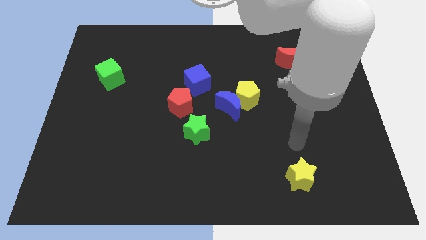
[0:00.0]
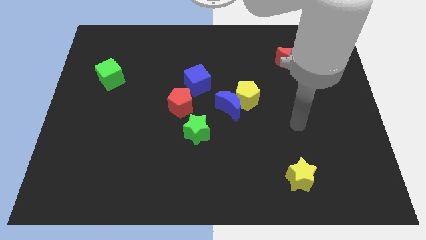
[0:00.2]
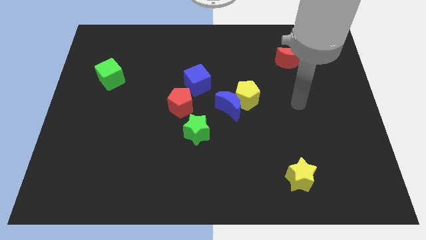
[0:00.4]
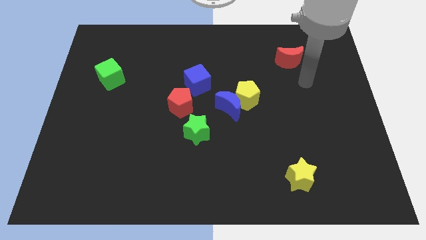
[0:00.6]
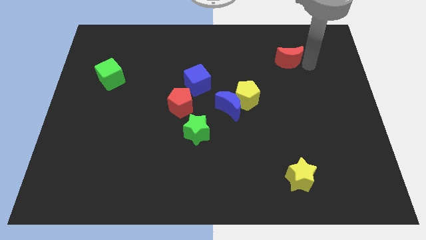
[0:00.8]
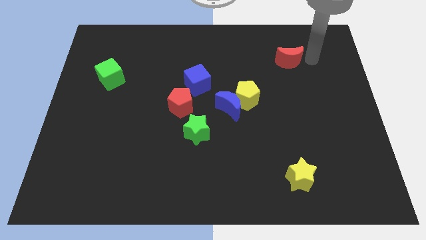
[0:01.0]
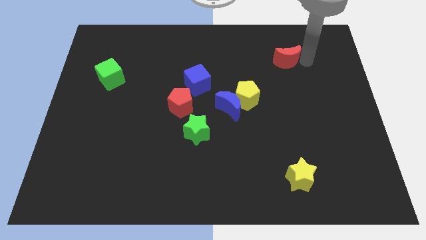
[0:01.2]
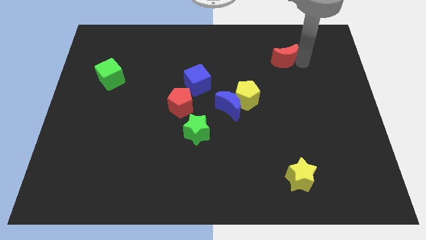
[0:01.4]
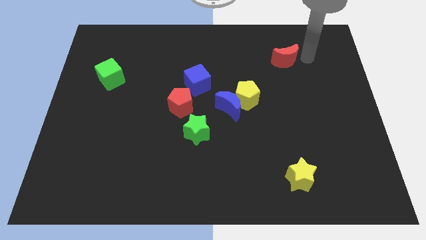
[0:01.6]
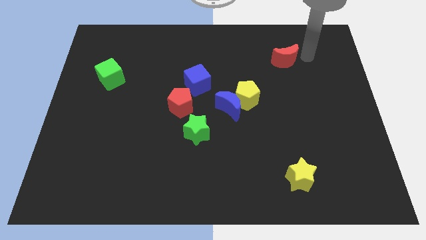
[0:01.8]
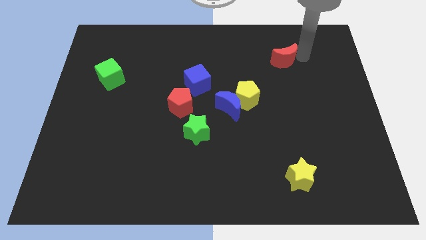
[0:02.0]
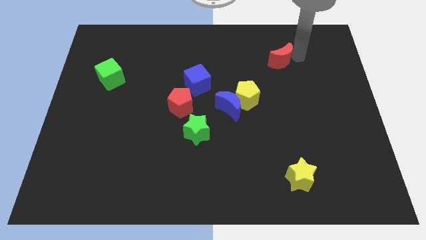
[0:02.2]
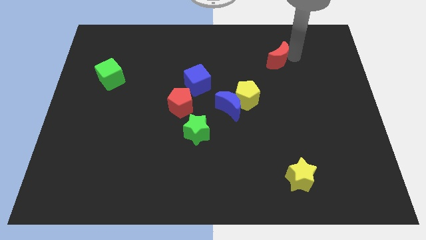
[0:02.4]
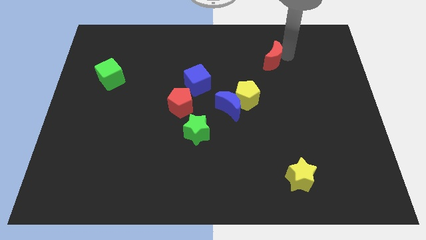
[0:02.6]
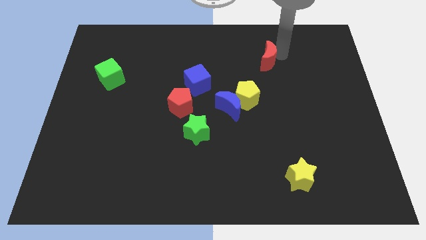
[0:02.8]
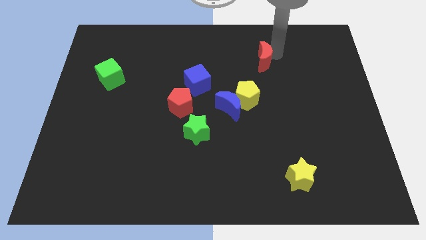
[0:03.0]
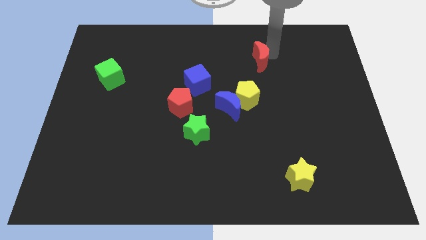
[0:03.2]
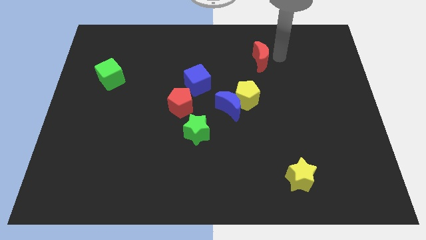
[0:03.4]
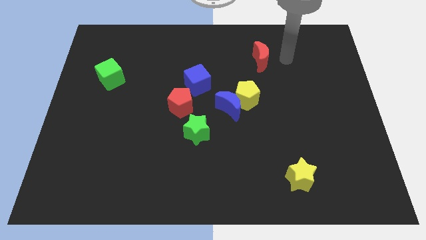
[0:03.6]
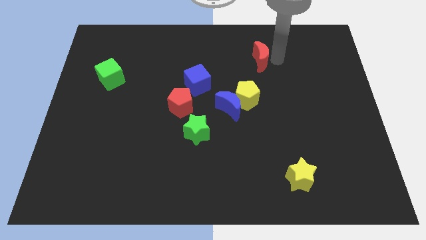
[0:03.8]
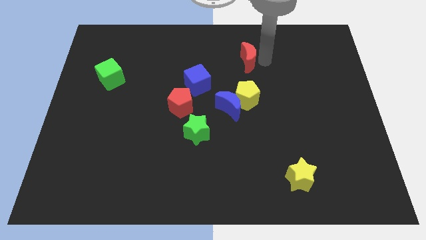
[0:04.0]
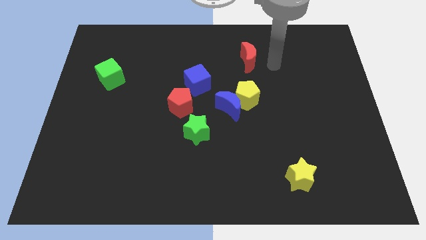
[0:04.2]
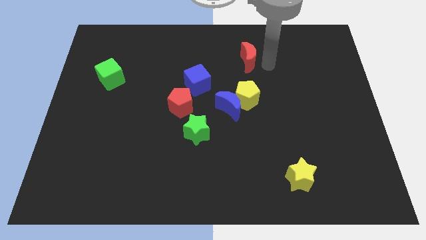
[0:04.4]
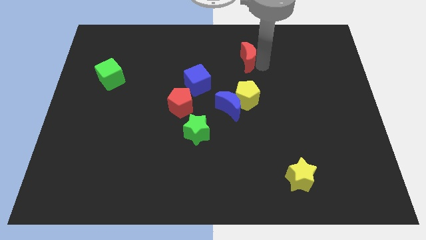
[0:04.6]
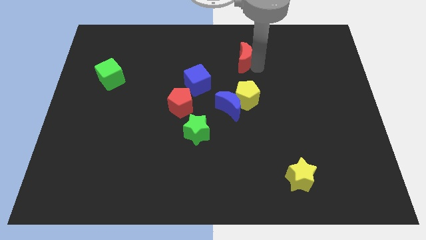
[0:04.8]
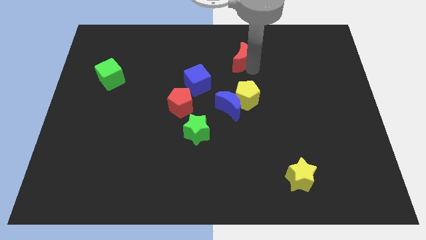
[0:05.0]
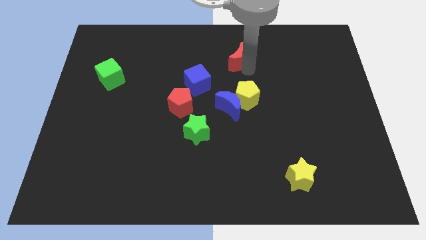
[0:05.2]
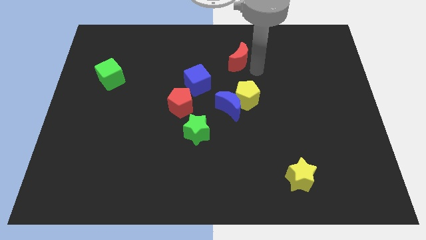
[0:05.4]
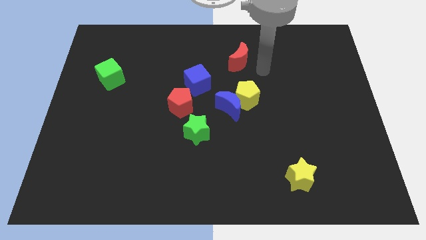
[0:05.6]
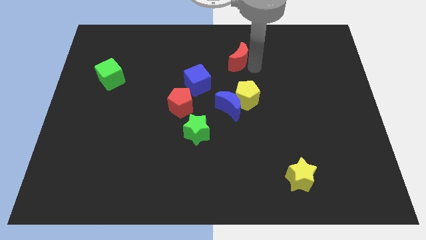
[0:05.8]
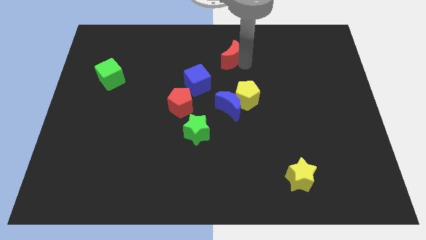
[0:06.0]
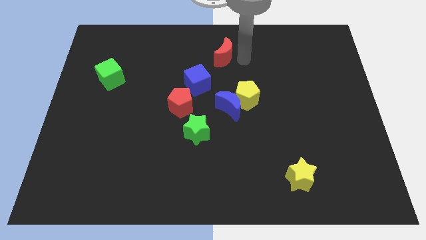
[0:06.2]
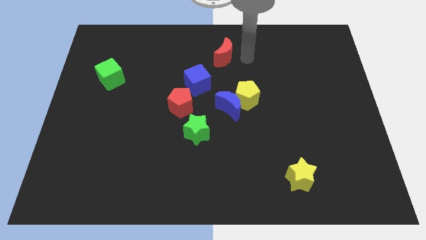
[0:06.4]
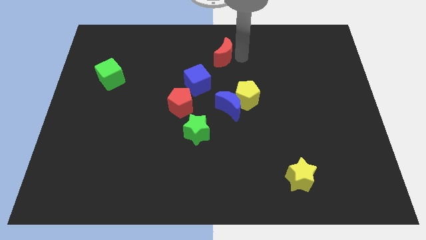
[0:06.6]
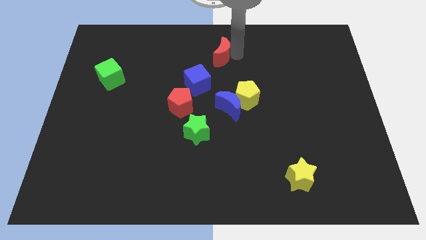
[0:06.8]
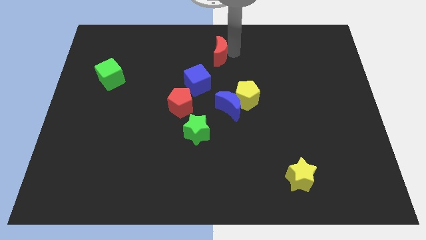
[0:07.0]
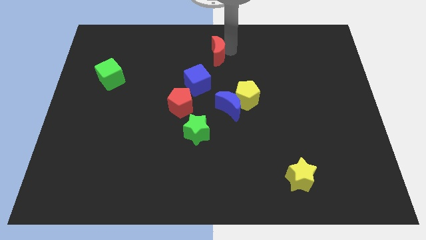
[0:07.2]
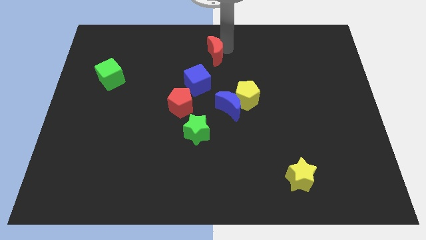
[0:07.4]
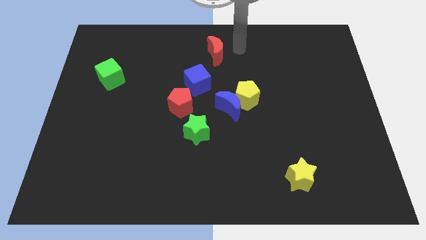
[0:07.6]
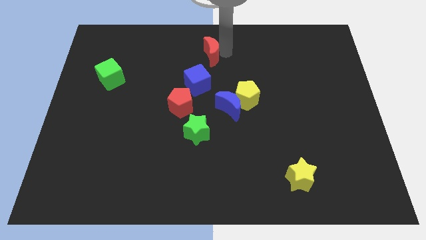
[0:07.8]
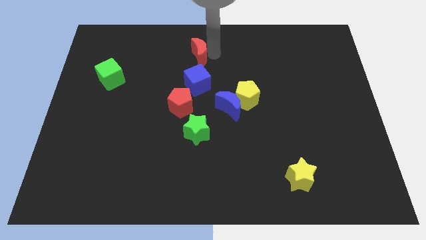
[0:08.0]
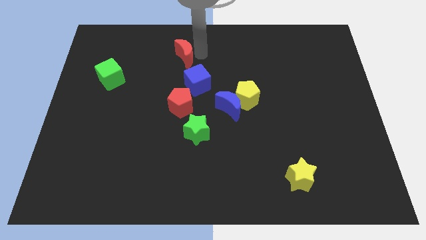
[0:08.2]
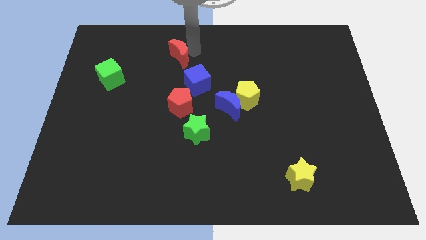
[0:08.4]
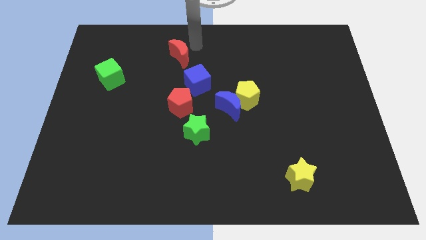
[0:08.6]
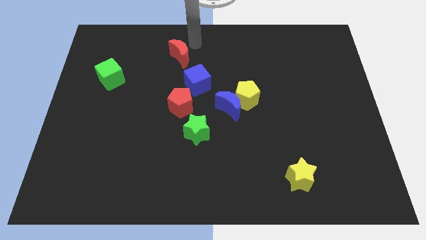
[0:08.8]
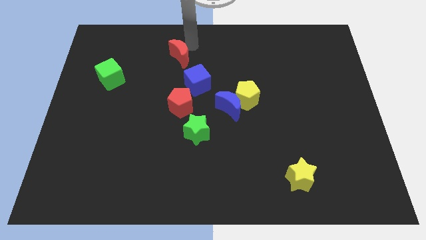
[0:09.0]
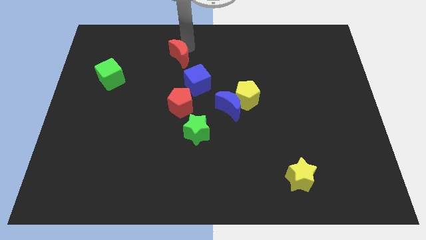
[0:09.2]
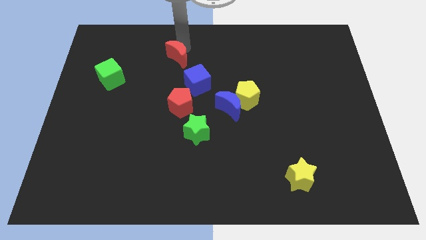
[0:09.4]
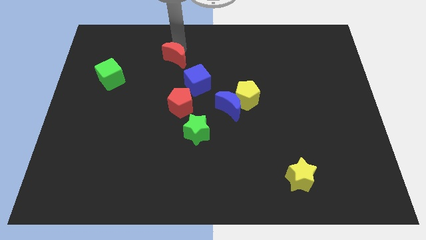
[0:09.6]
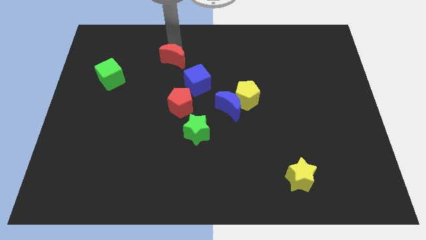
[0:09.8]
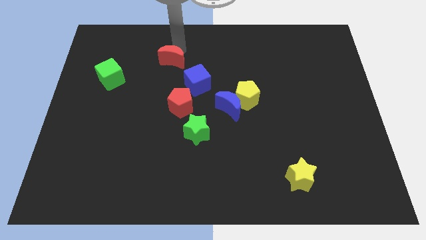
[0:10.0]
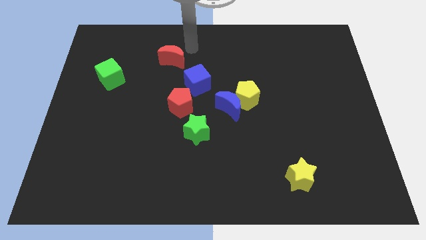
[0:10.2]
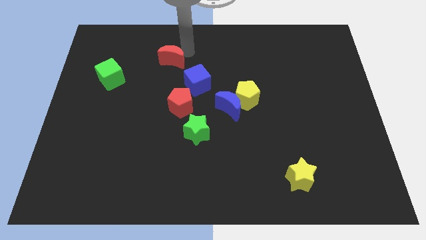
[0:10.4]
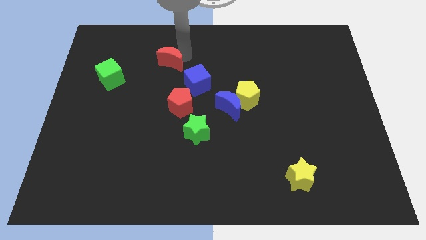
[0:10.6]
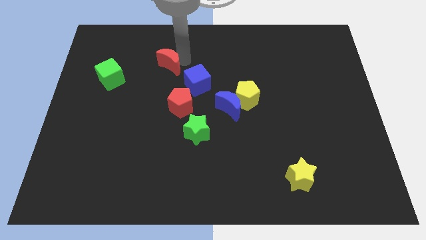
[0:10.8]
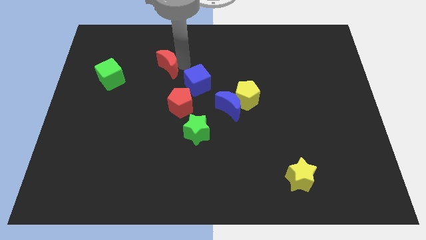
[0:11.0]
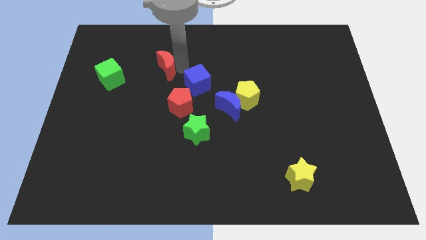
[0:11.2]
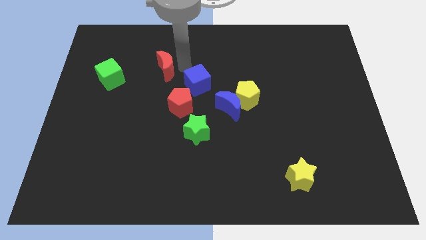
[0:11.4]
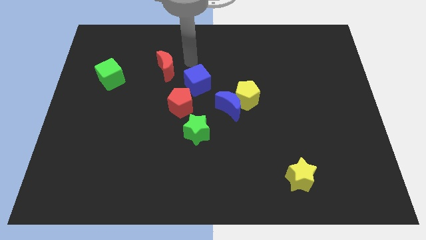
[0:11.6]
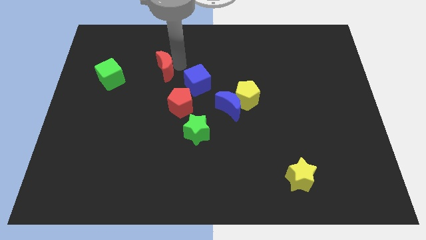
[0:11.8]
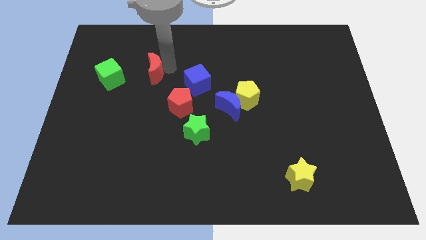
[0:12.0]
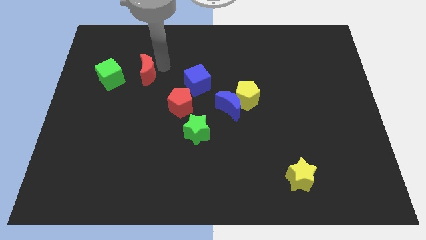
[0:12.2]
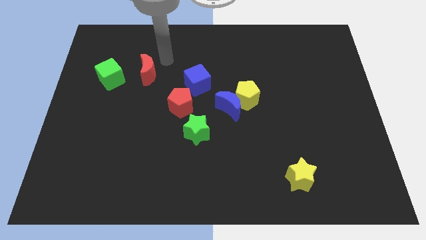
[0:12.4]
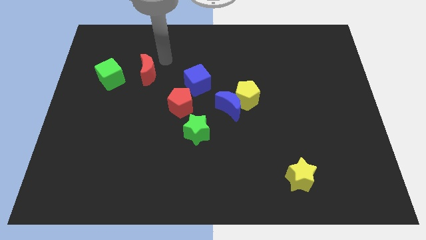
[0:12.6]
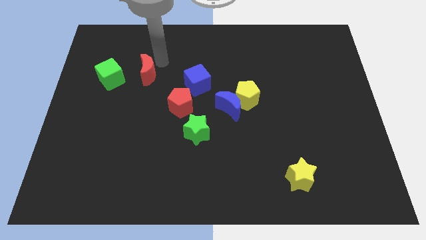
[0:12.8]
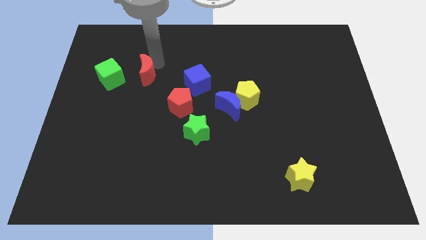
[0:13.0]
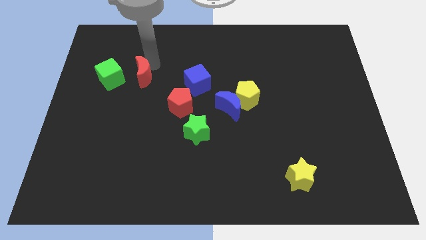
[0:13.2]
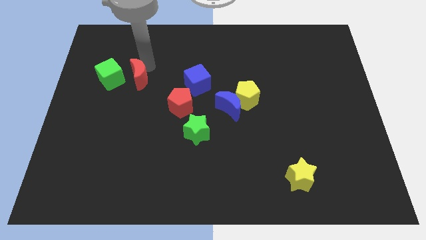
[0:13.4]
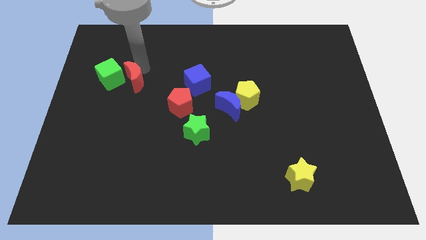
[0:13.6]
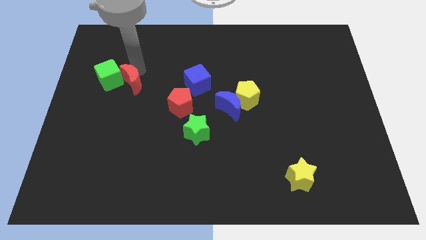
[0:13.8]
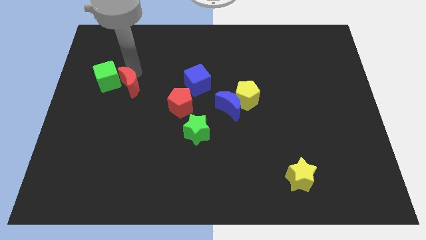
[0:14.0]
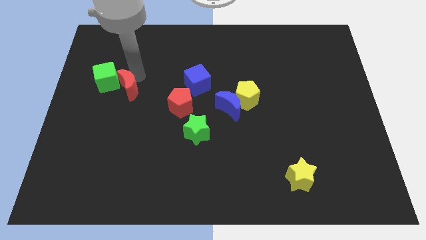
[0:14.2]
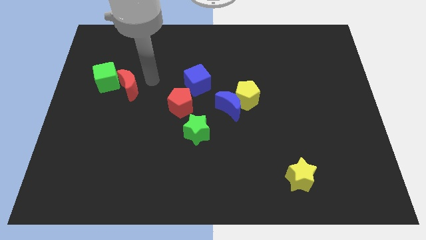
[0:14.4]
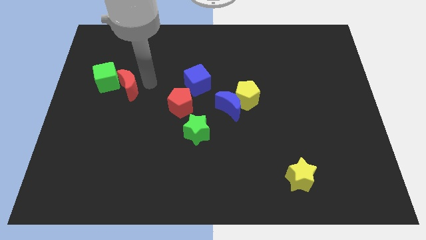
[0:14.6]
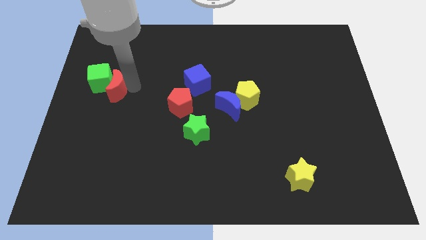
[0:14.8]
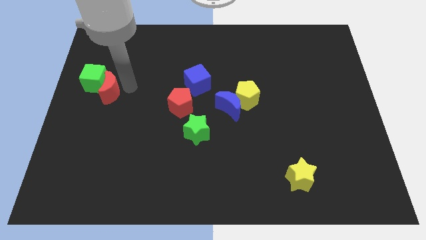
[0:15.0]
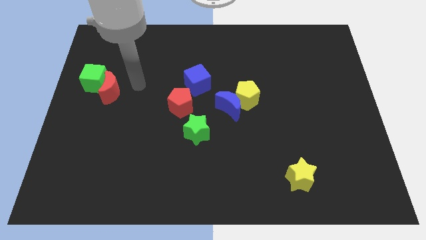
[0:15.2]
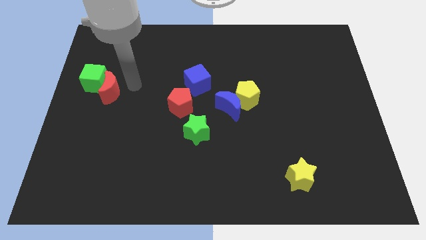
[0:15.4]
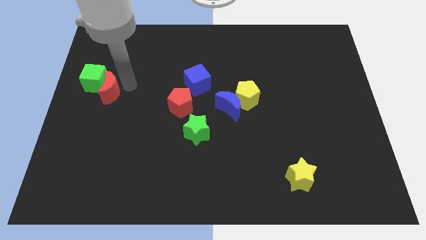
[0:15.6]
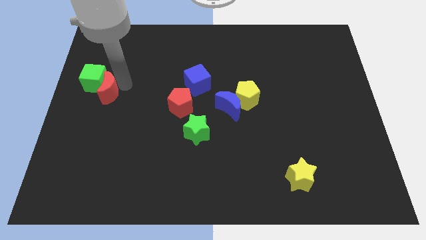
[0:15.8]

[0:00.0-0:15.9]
move the red moon to the left side of the board
